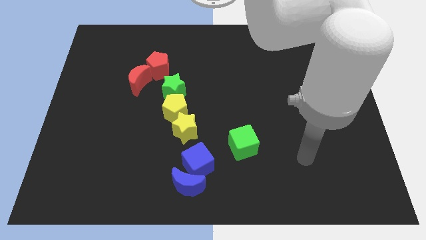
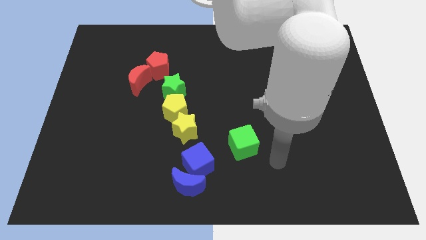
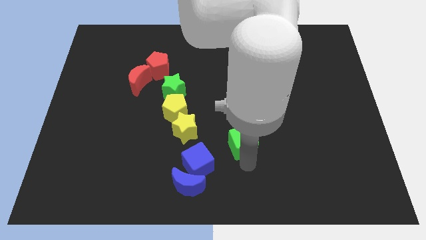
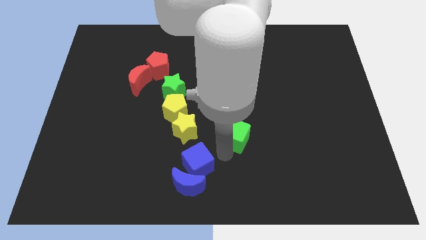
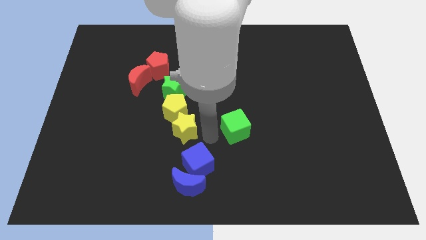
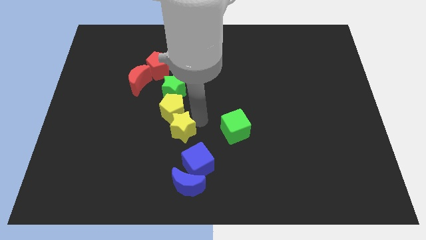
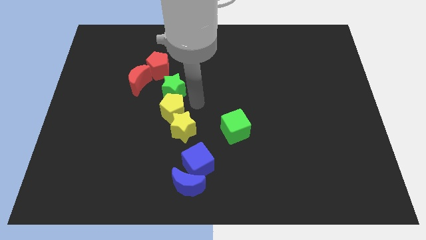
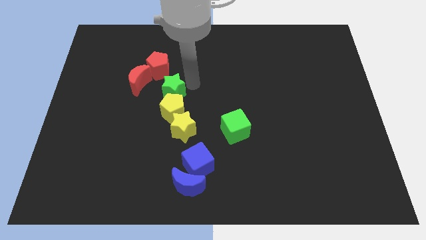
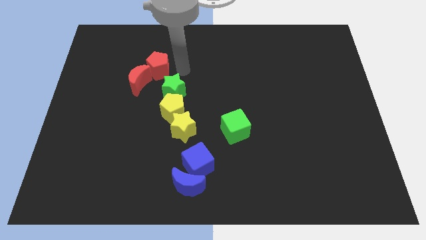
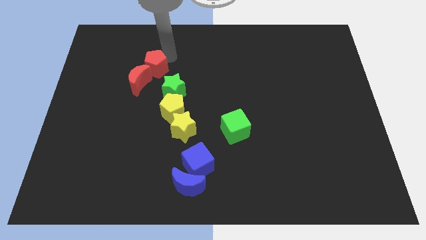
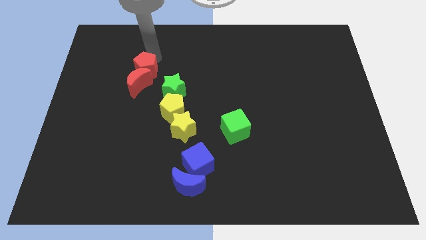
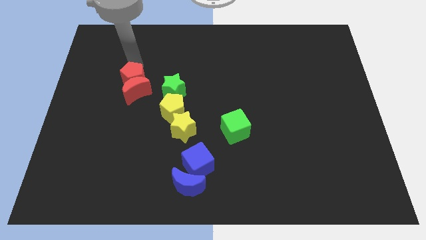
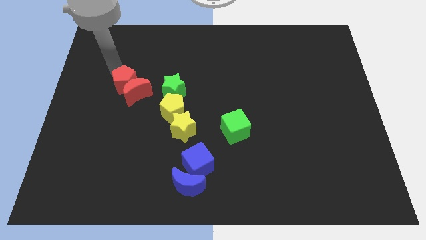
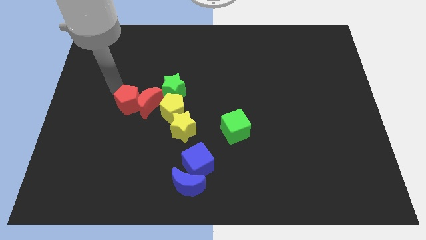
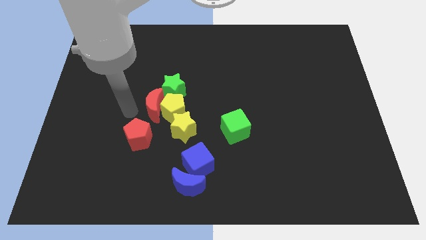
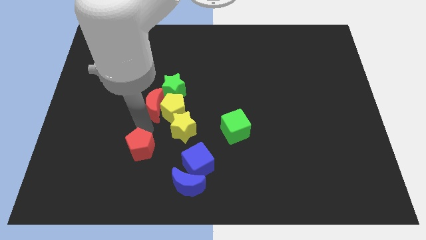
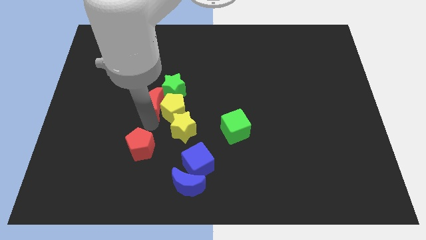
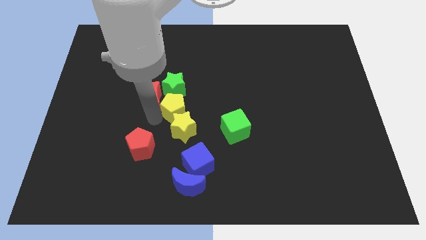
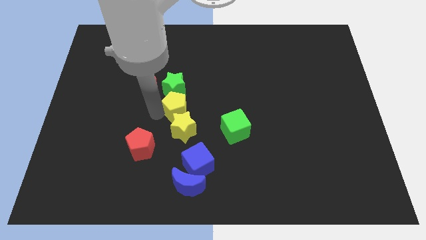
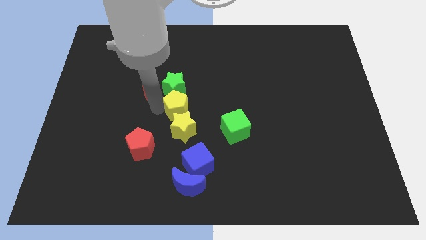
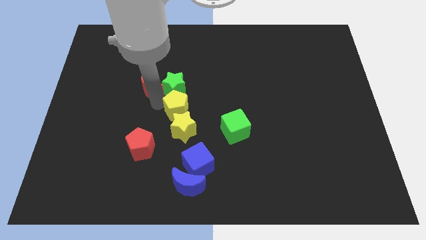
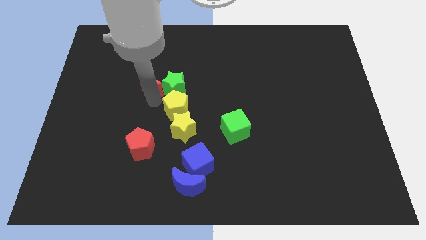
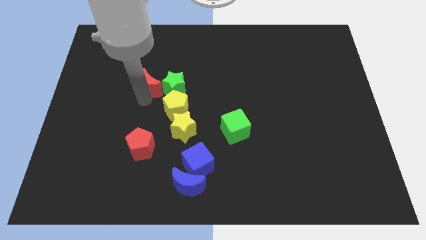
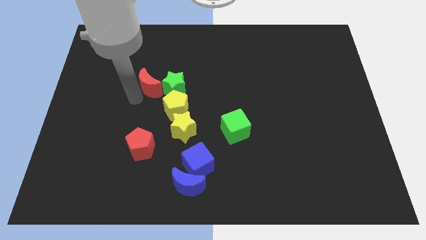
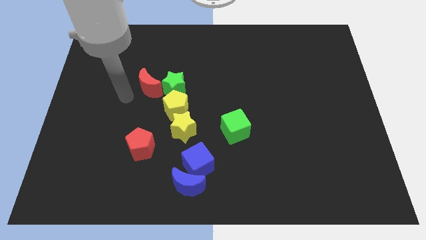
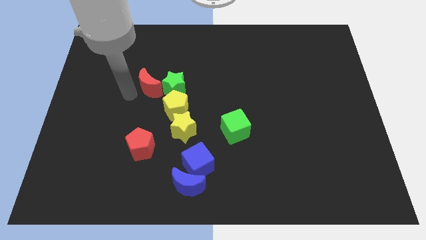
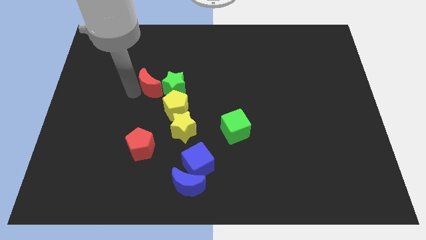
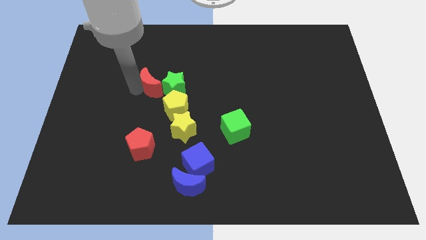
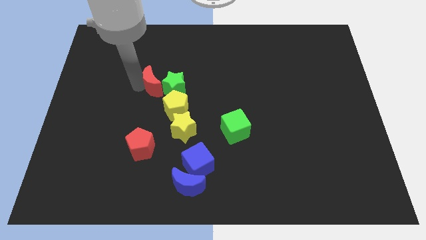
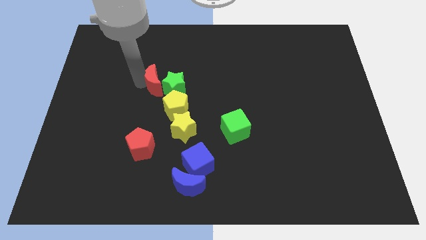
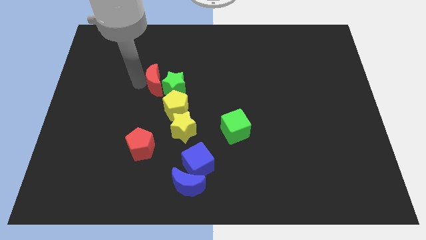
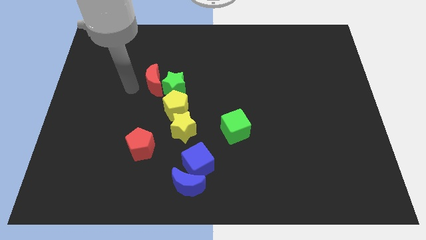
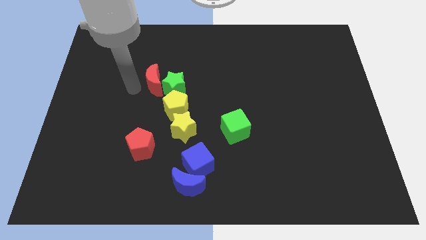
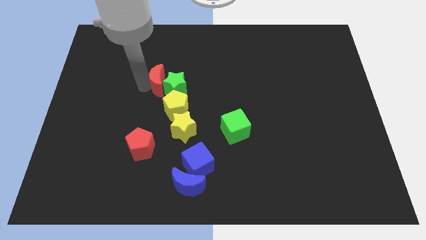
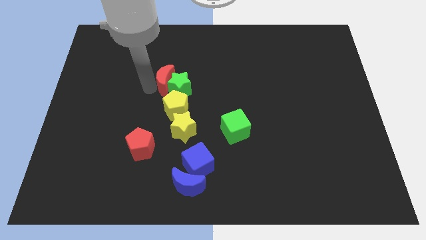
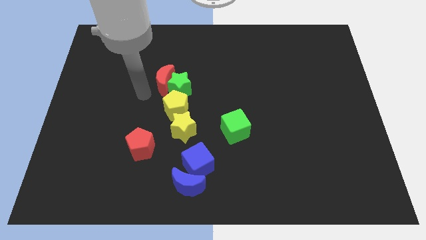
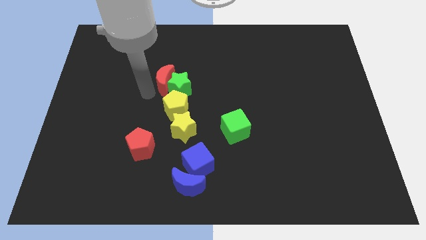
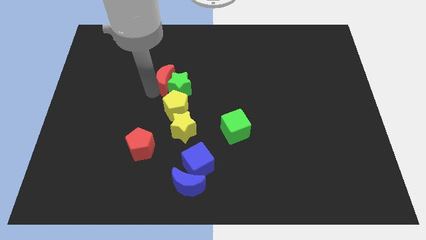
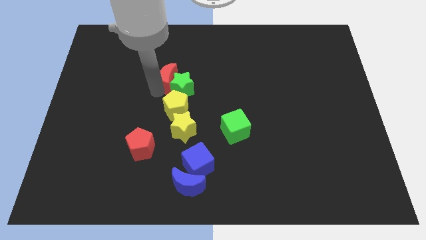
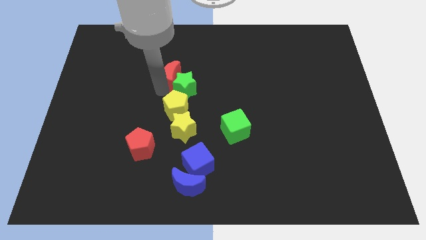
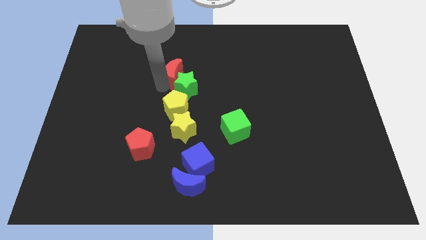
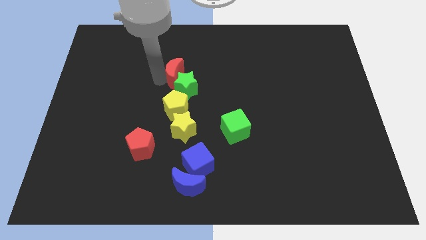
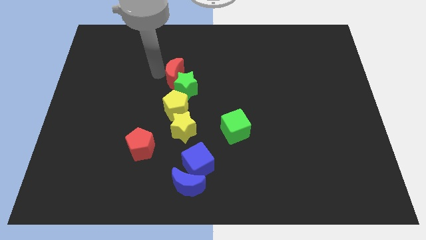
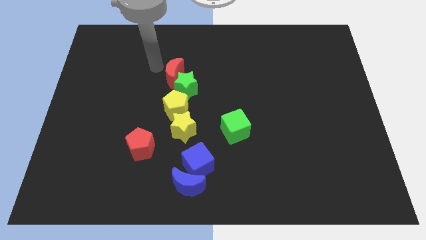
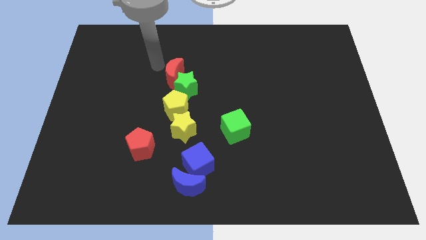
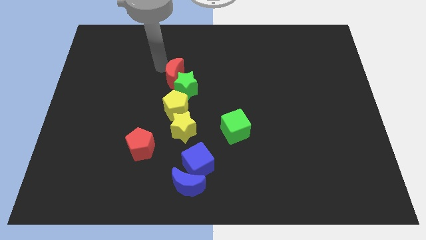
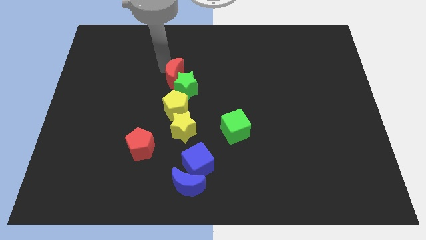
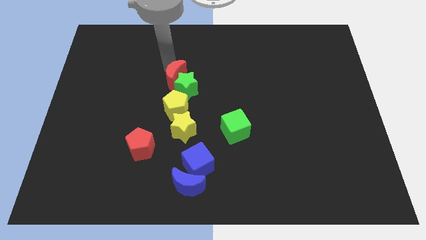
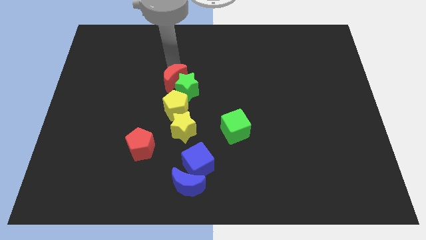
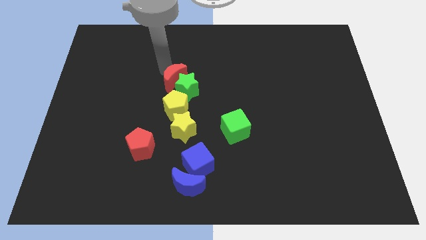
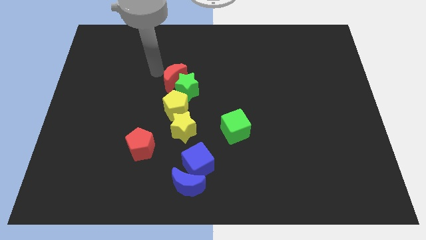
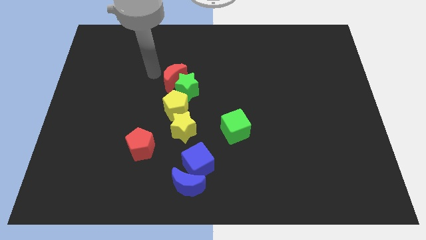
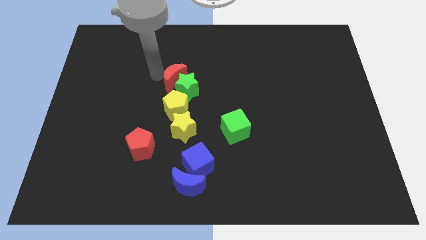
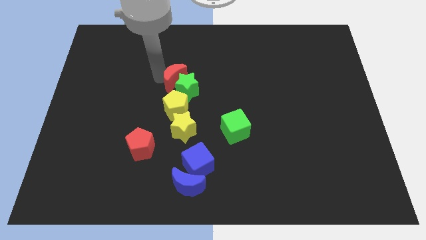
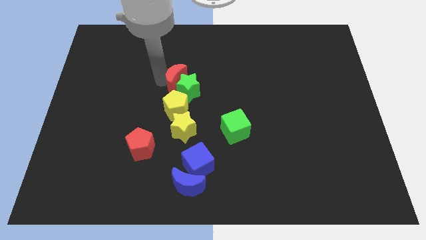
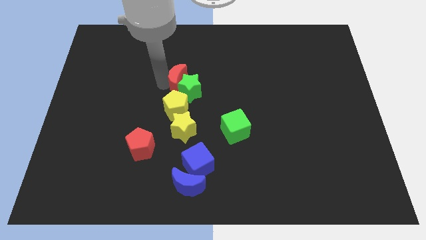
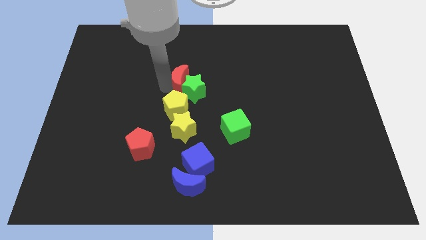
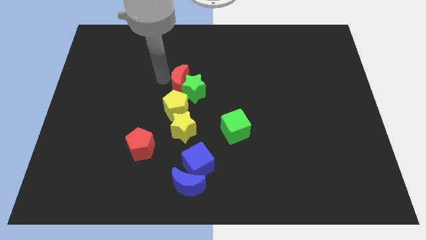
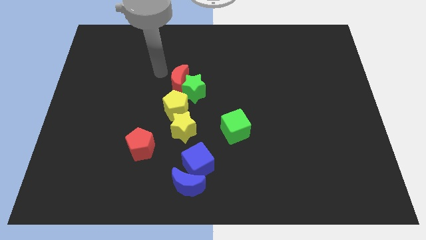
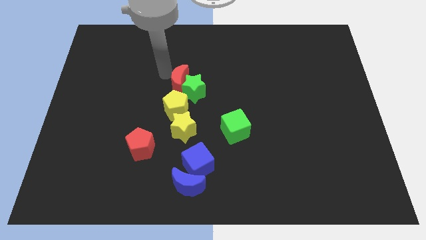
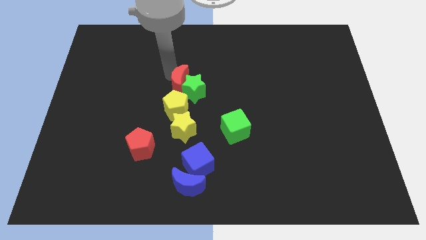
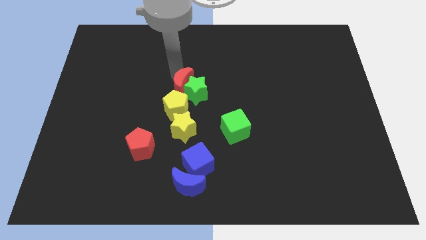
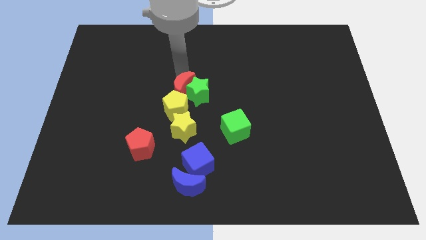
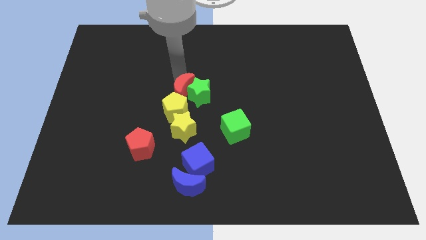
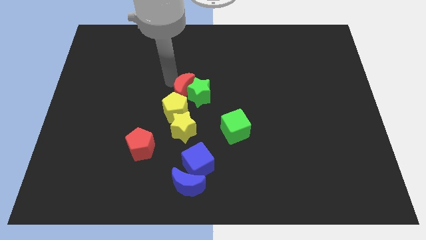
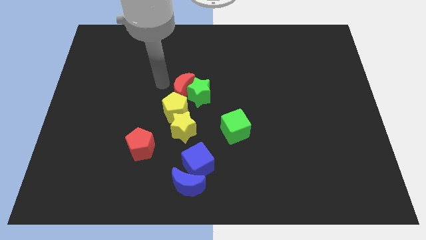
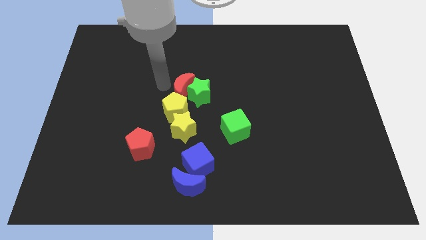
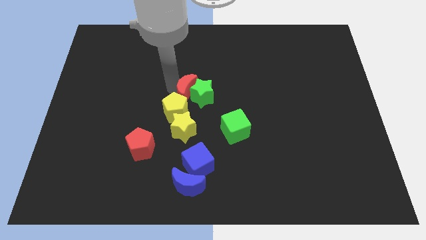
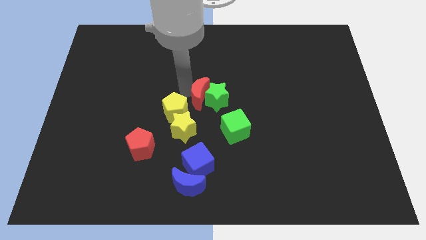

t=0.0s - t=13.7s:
slide the red moon right of the yellow pentagon
